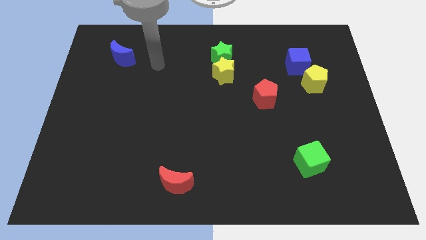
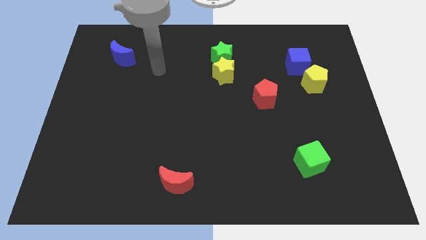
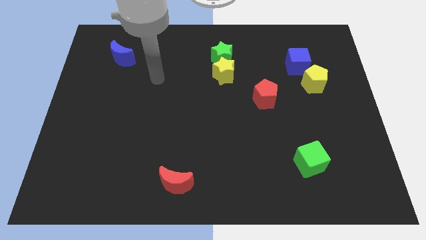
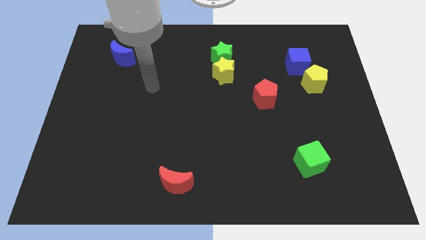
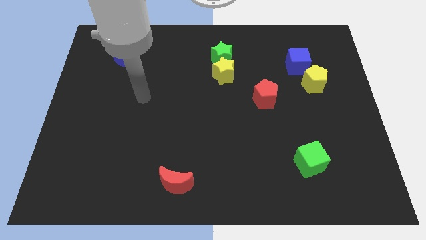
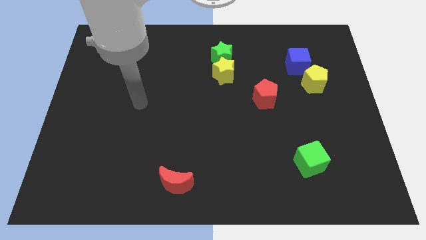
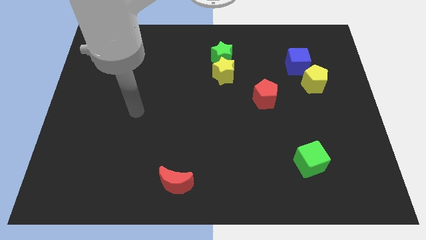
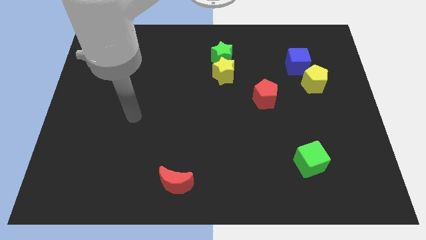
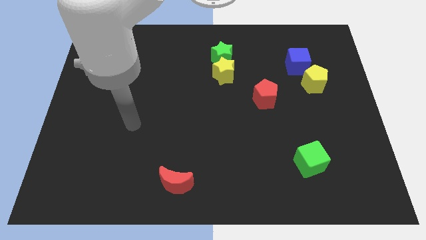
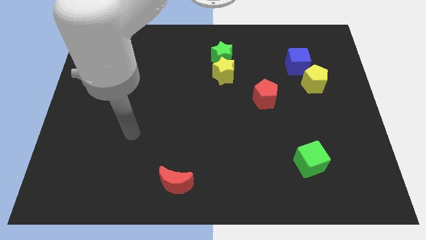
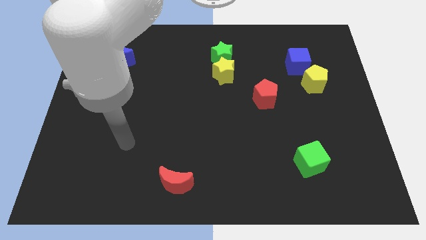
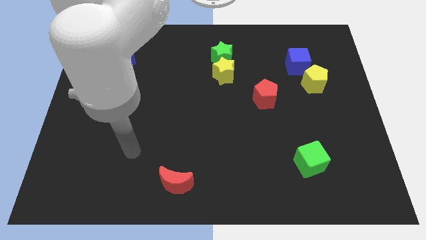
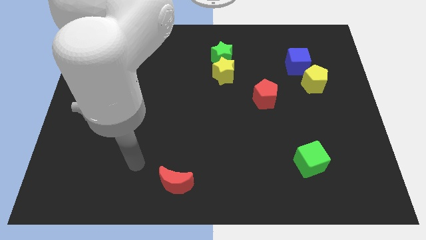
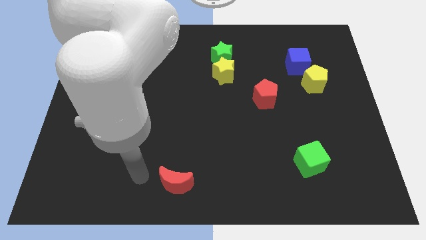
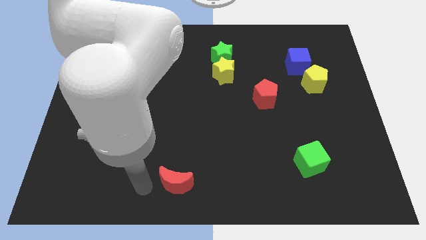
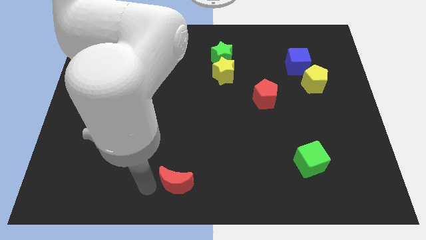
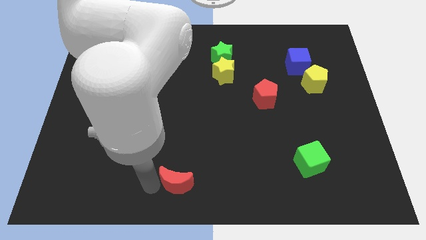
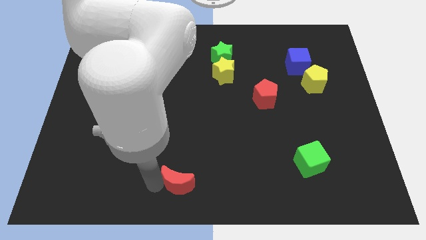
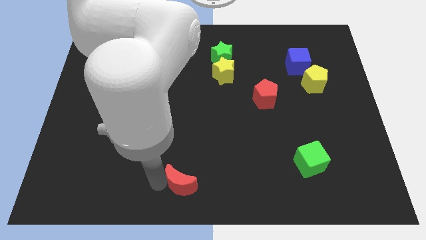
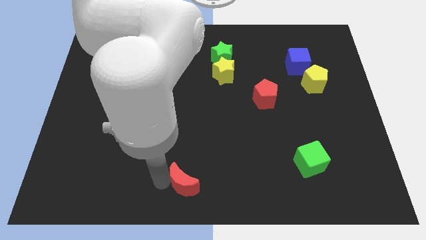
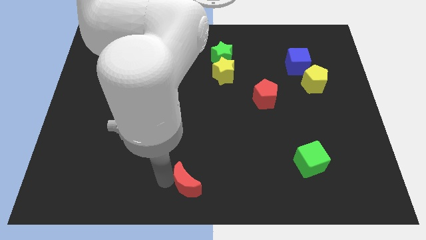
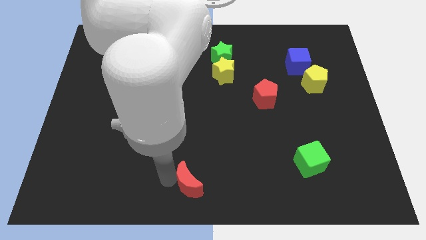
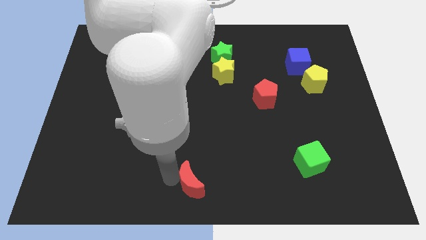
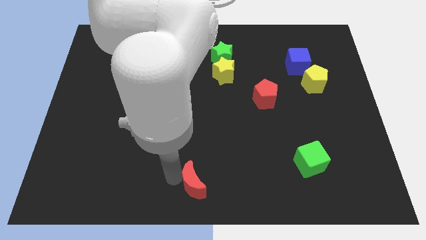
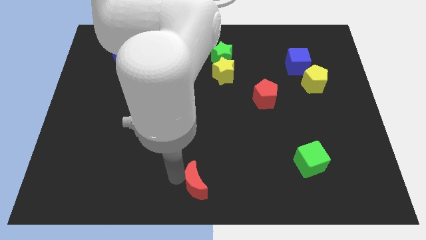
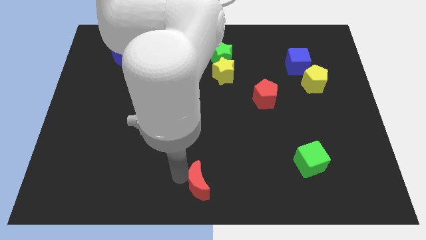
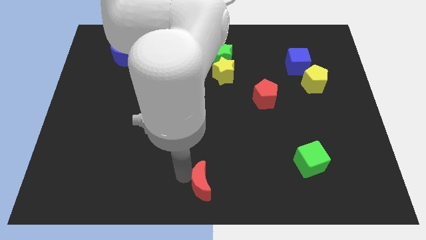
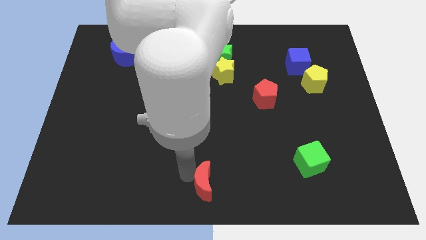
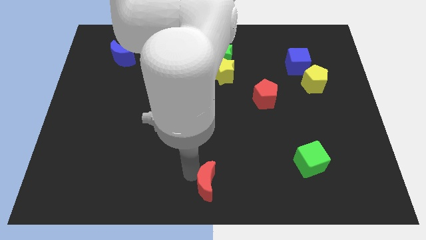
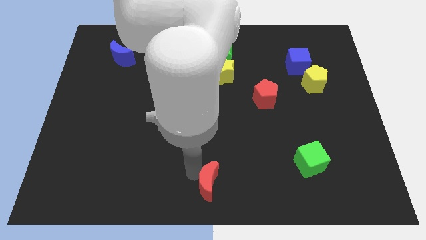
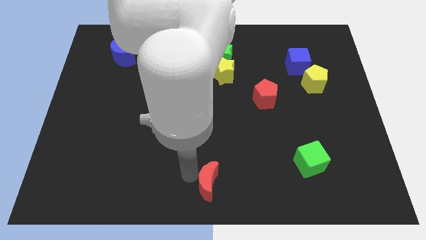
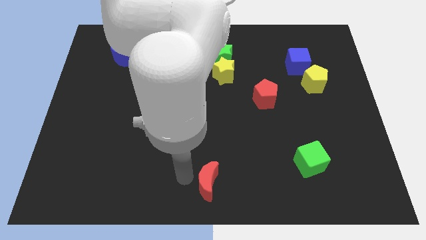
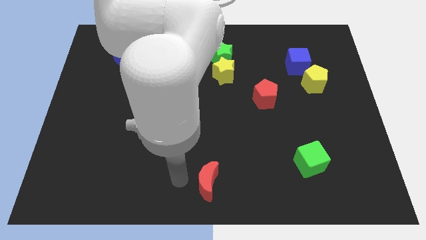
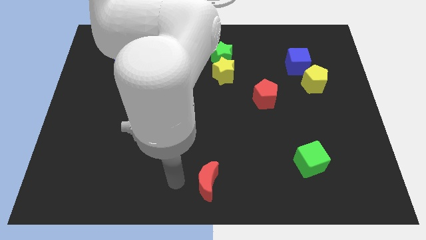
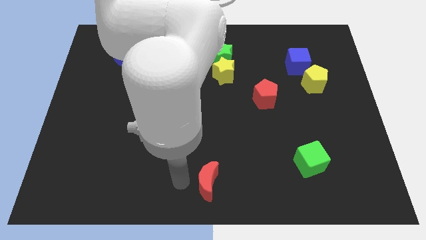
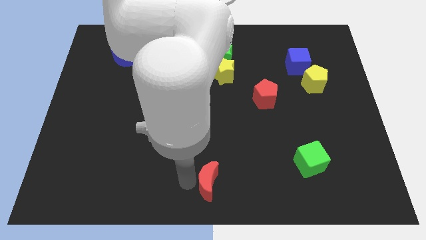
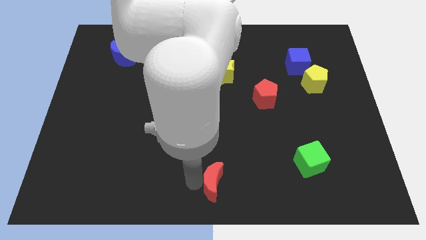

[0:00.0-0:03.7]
slide the red moon to the right slightly

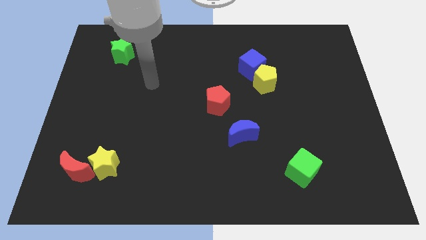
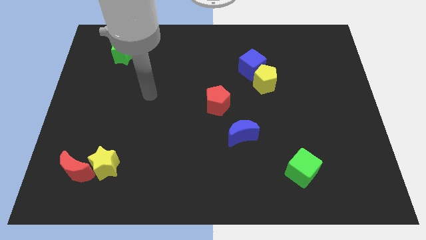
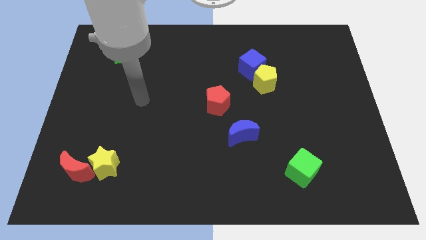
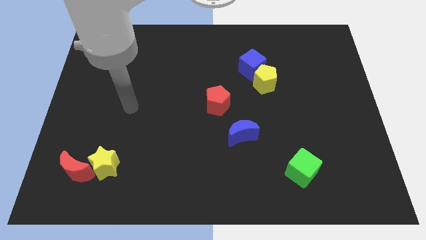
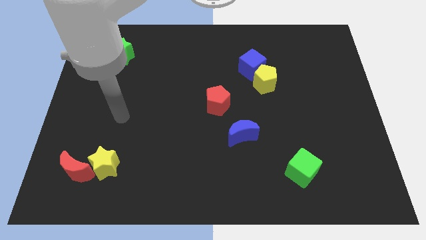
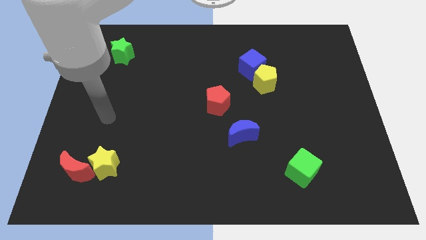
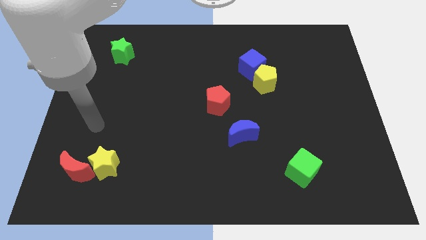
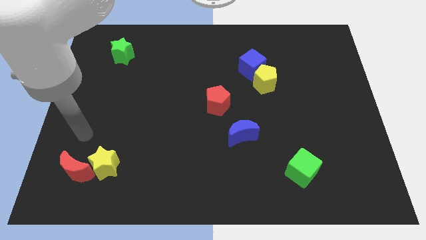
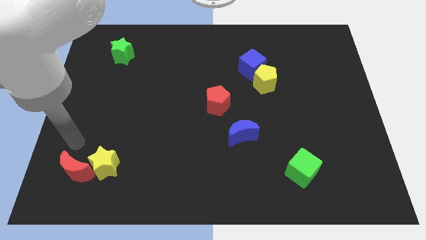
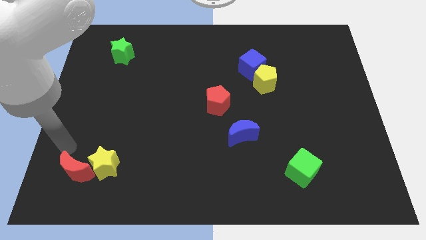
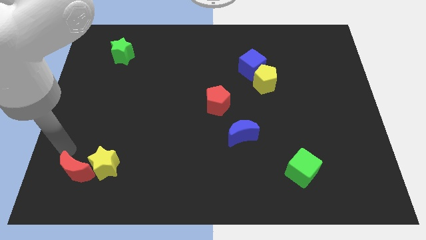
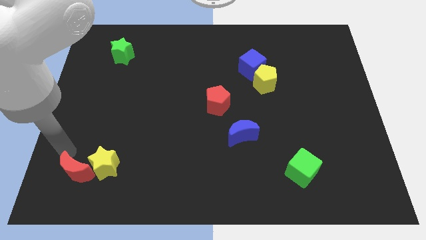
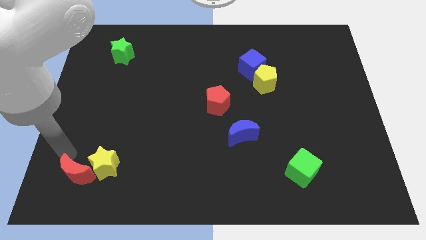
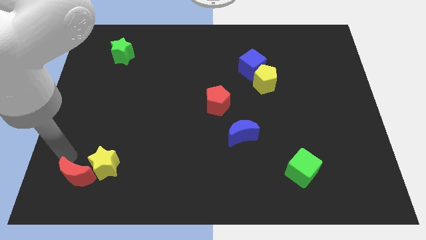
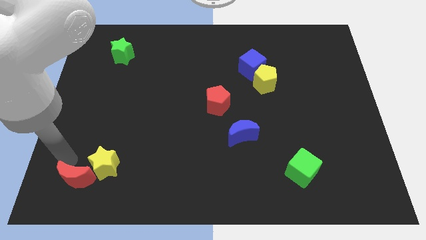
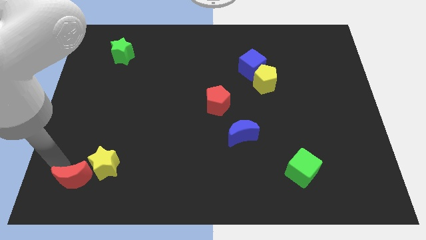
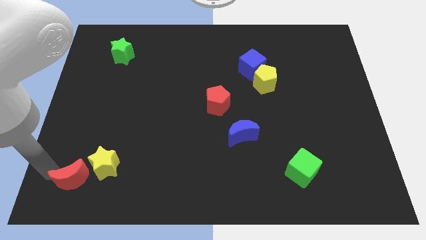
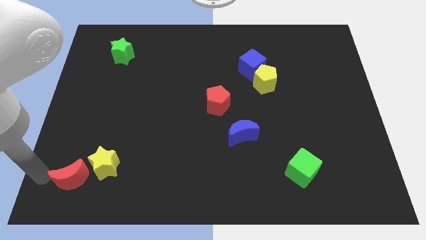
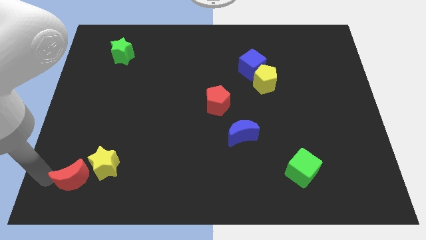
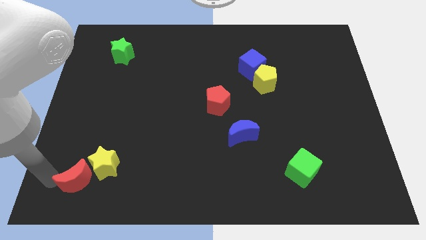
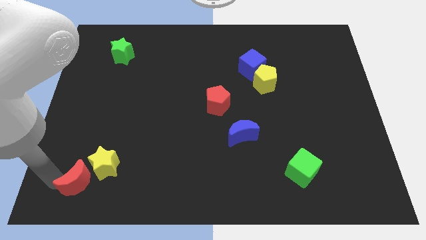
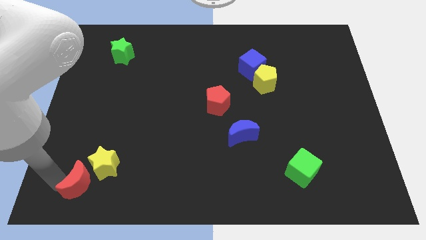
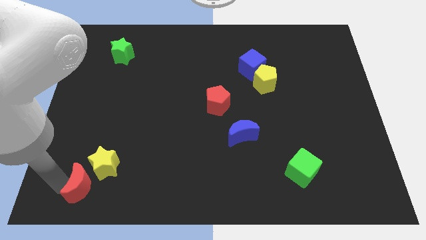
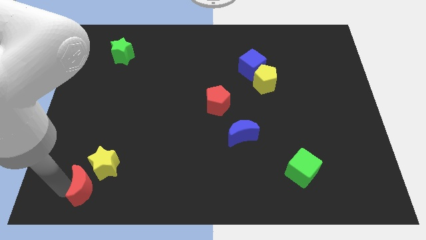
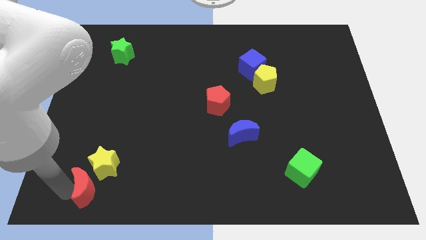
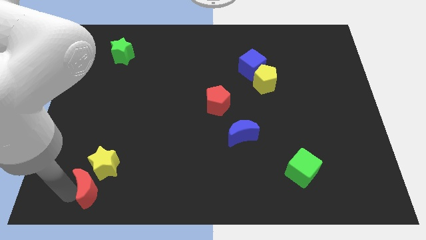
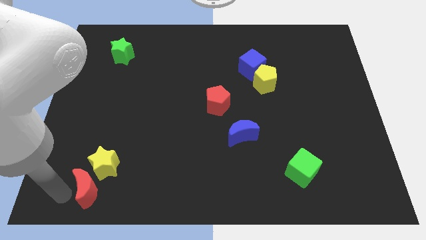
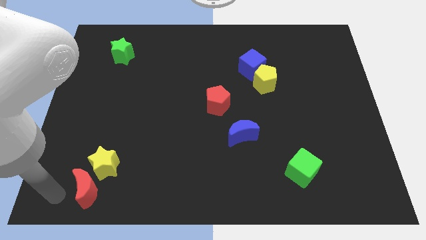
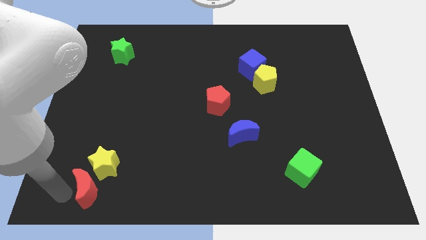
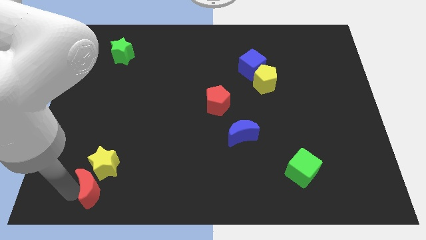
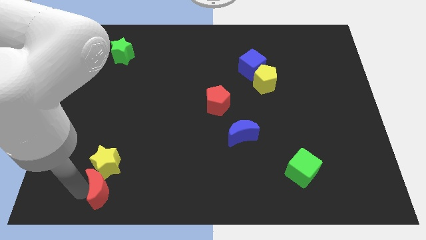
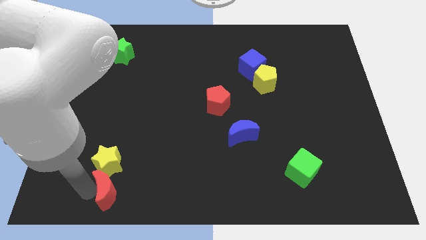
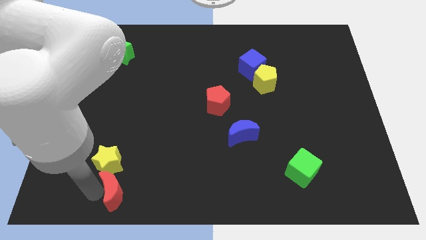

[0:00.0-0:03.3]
slide the red moon to the right a little

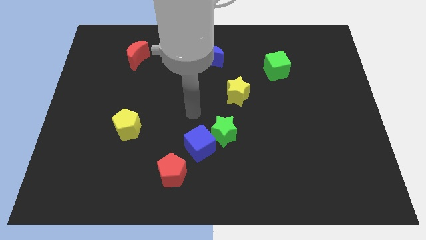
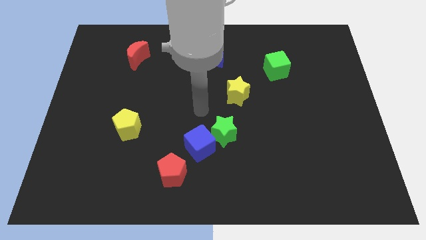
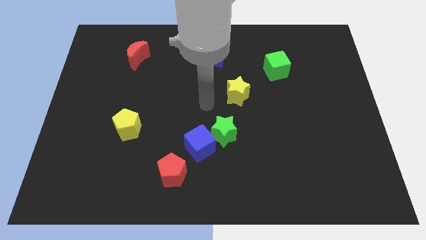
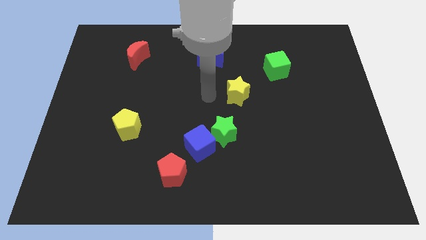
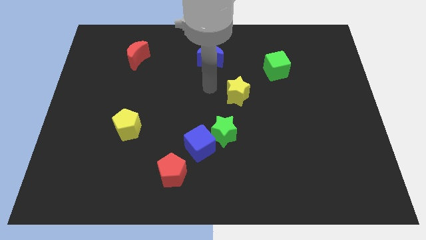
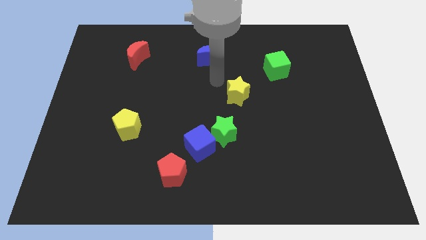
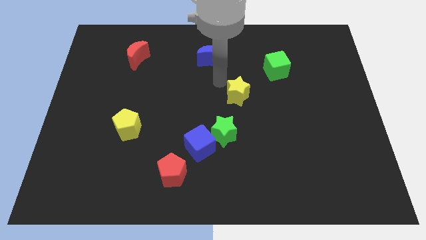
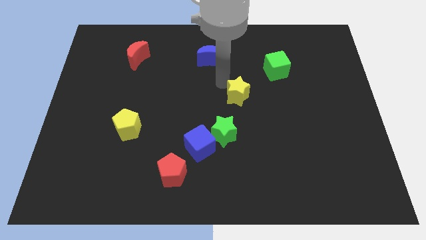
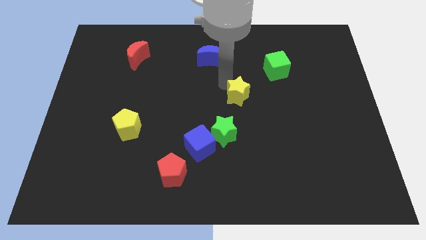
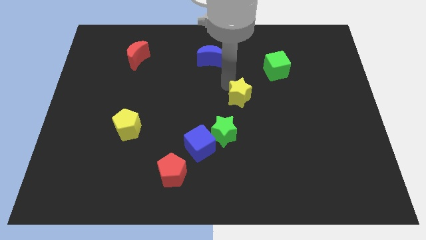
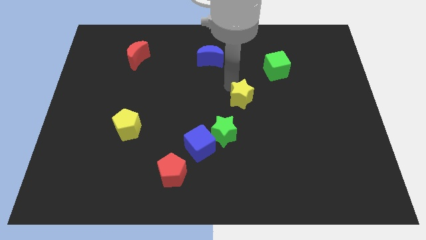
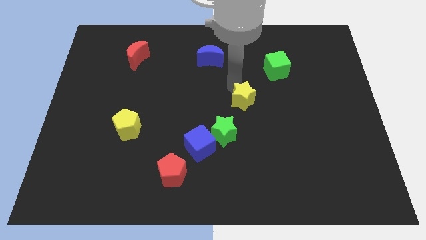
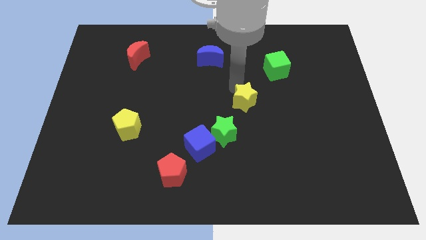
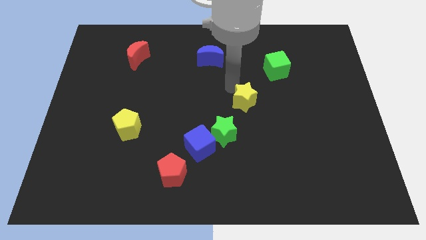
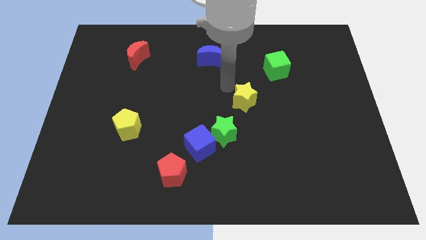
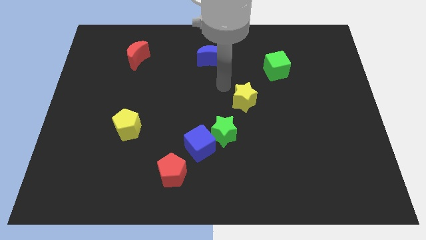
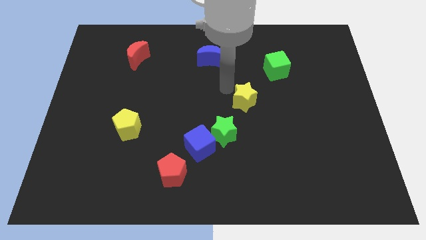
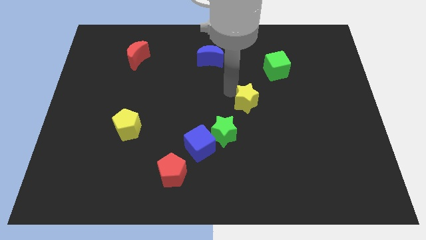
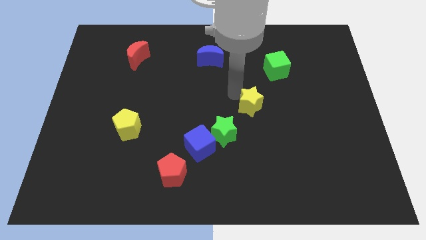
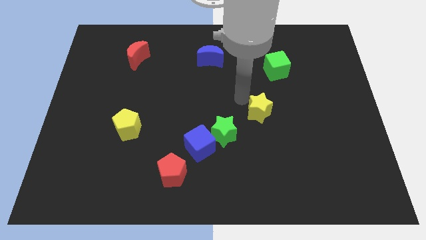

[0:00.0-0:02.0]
slide the yellow star somewhat diagonally down and to the right
